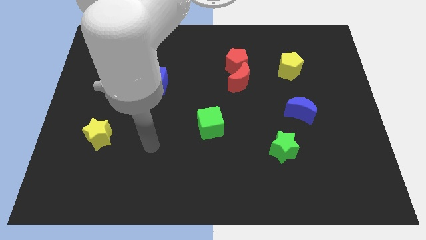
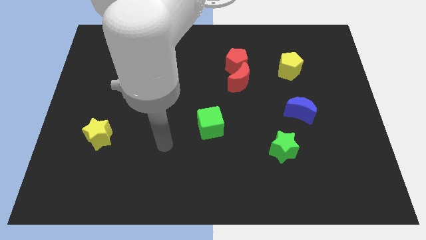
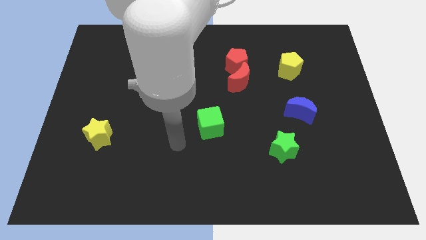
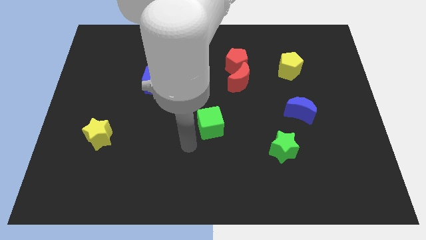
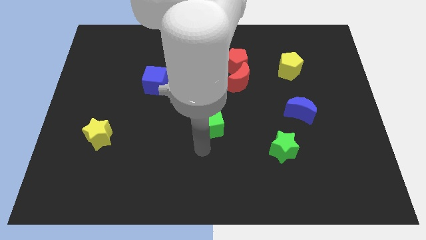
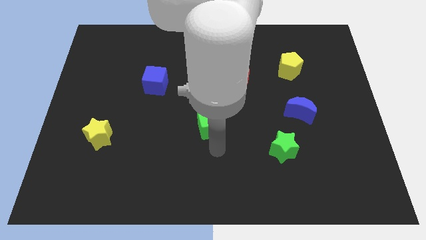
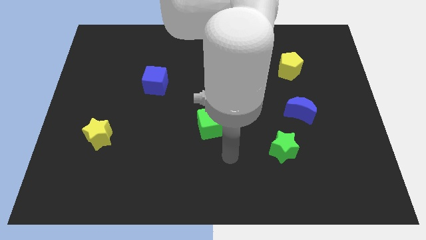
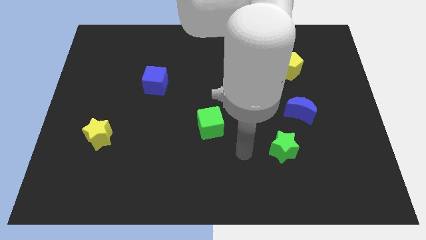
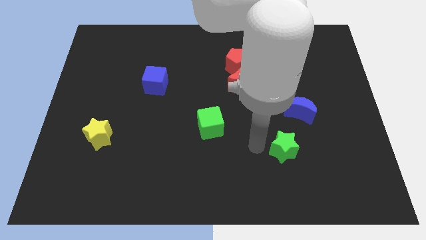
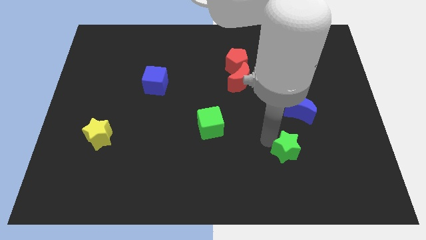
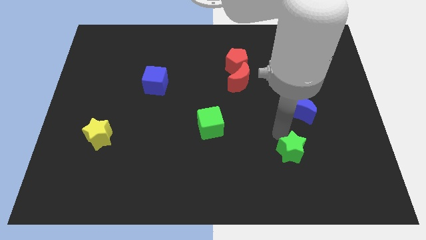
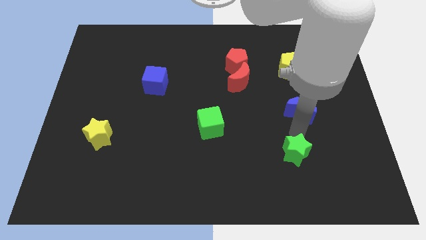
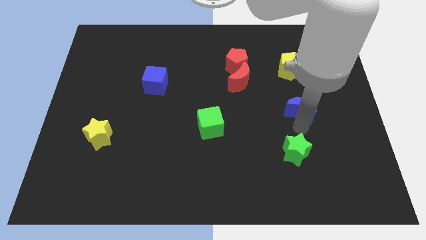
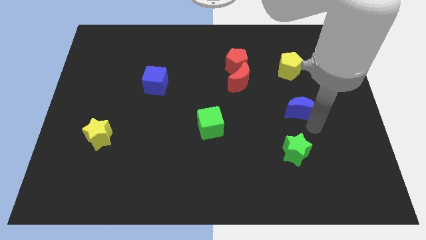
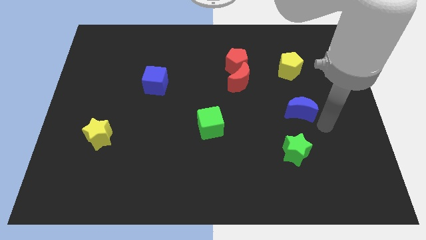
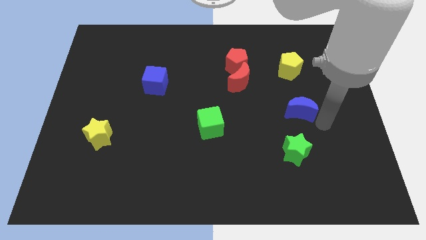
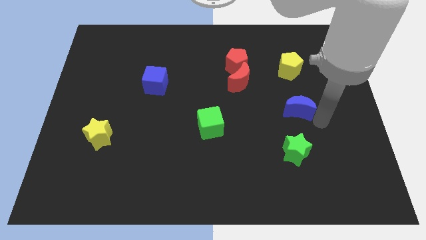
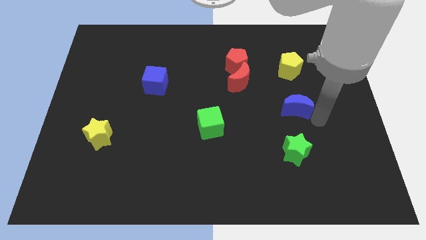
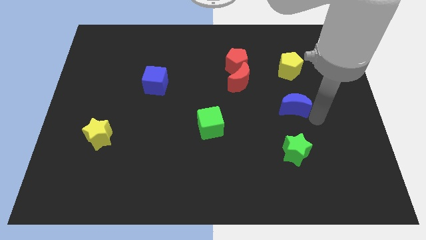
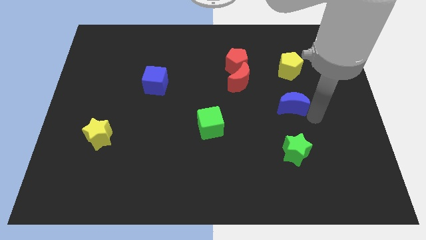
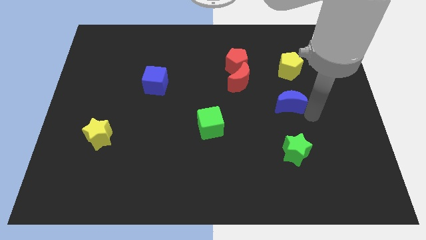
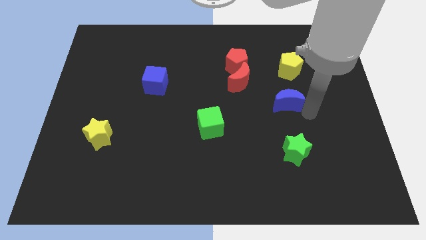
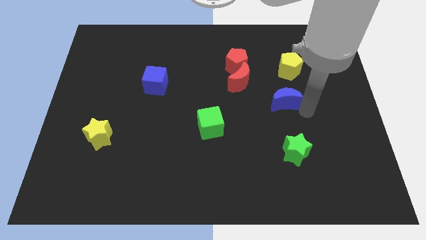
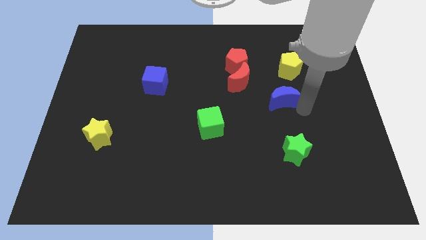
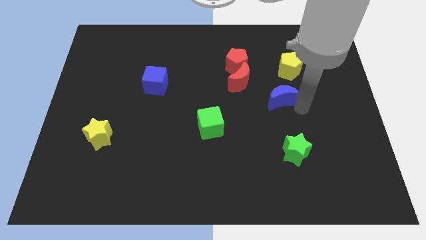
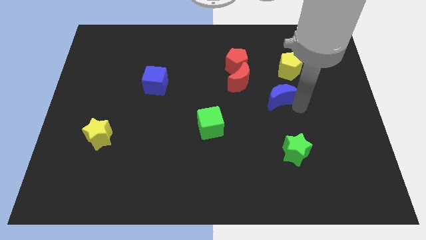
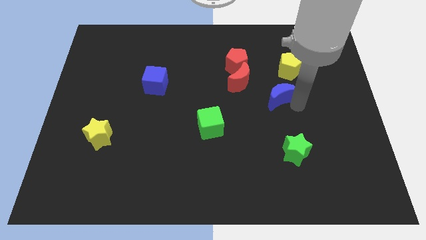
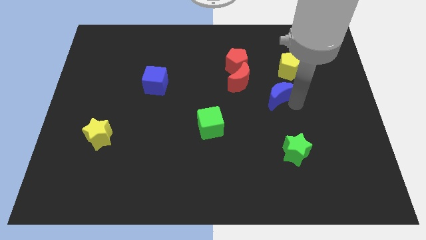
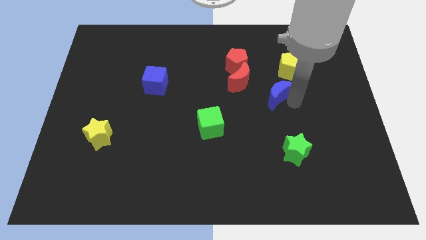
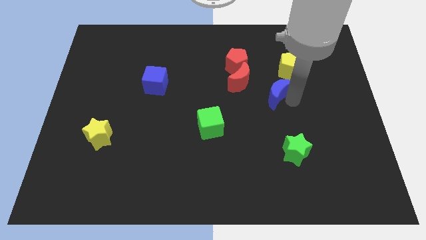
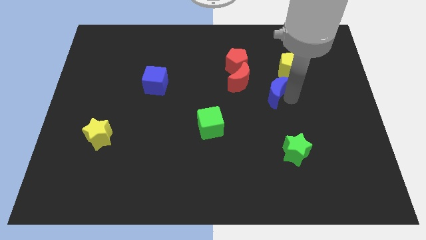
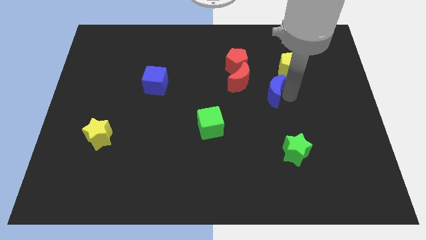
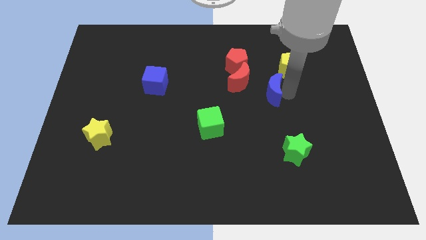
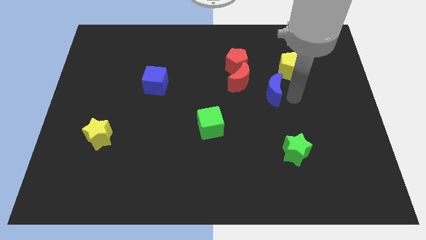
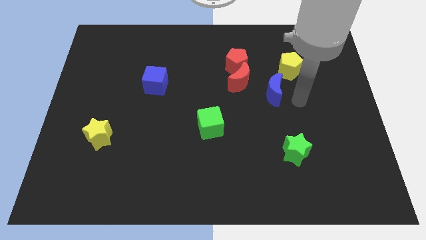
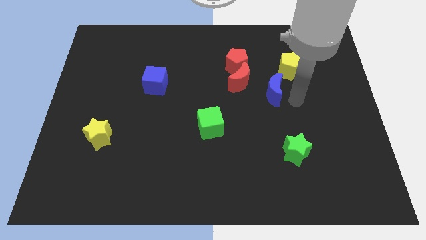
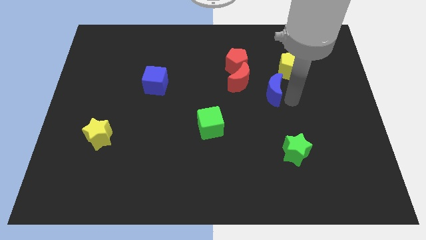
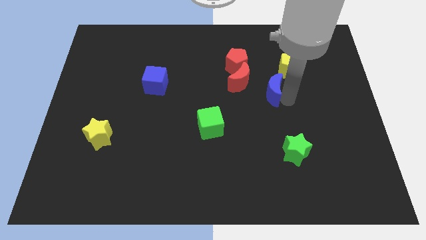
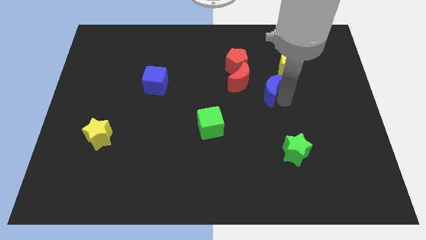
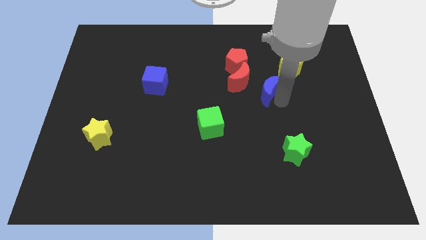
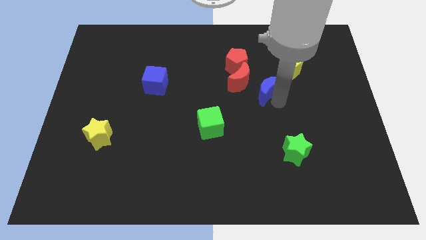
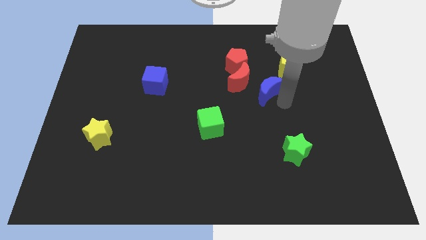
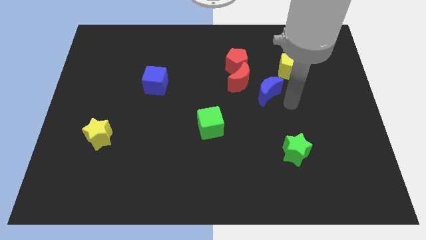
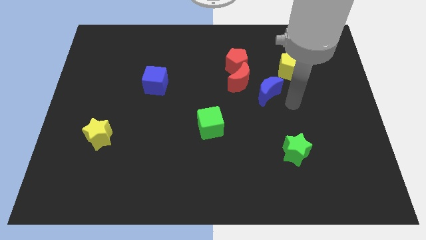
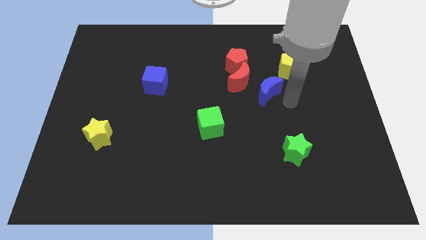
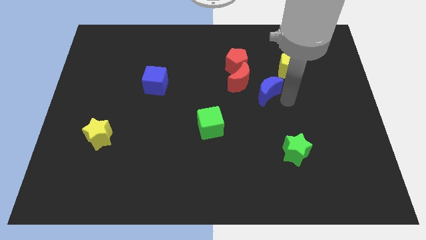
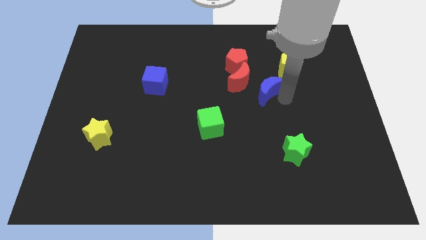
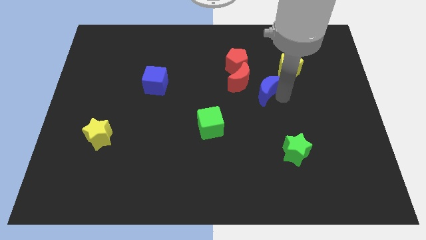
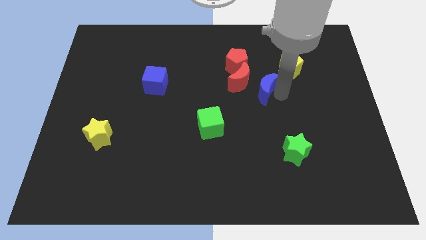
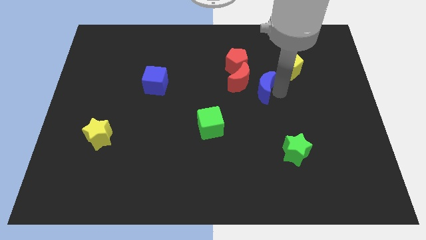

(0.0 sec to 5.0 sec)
put the blue moon close to the red moon

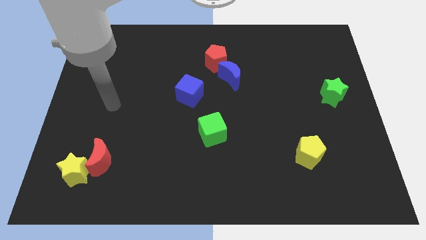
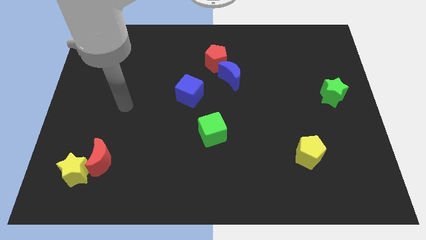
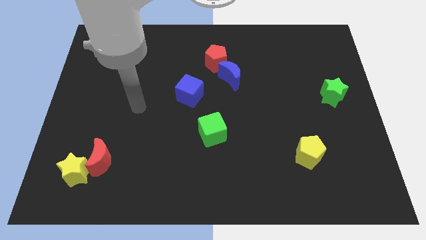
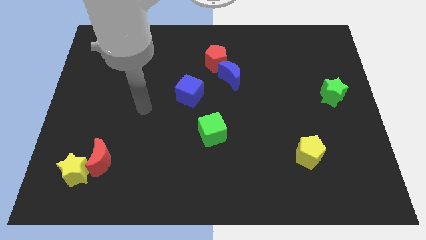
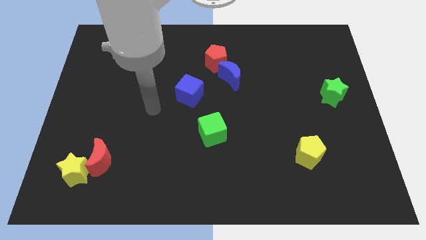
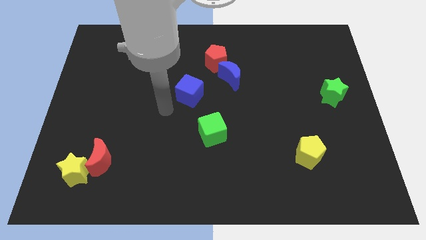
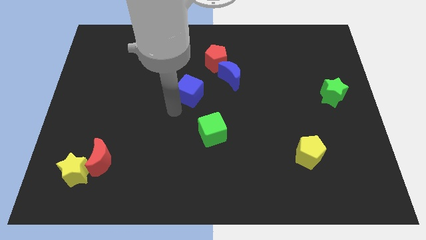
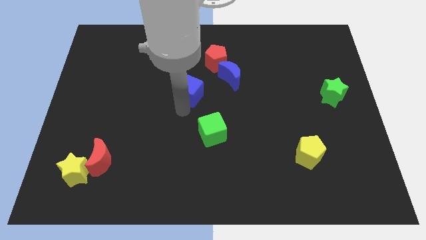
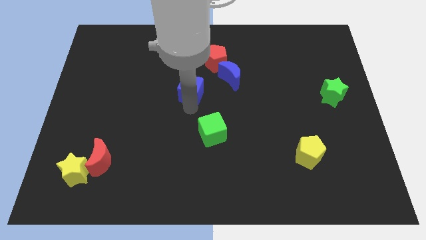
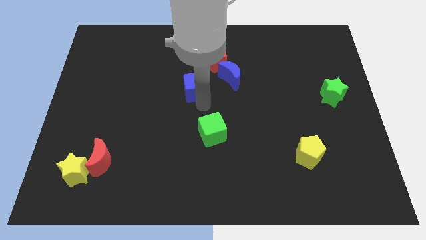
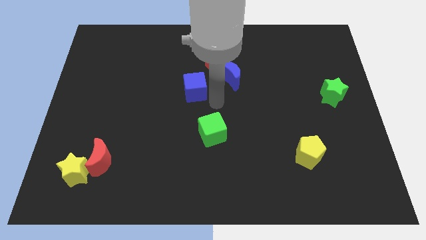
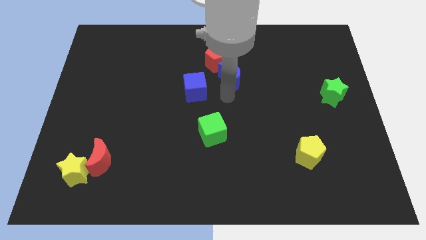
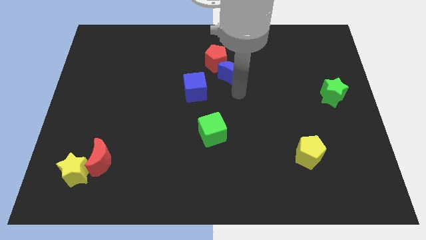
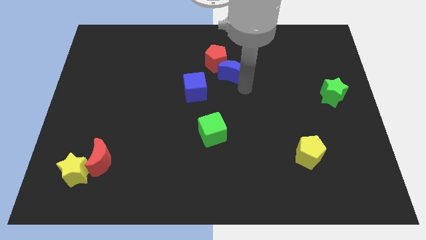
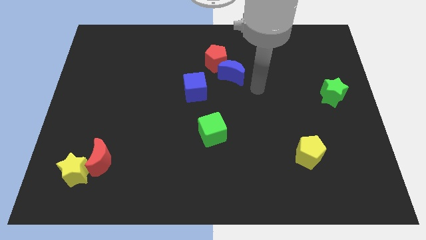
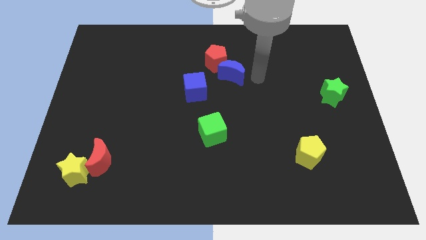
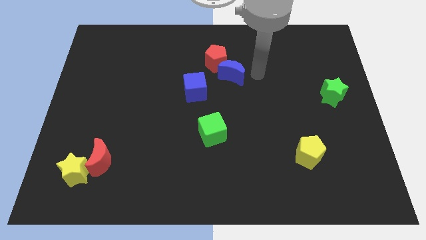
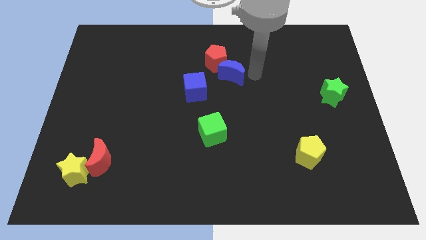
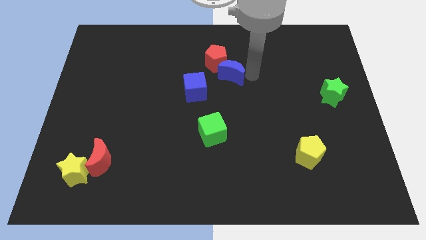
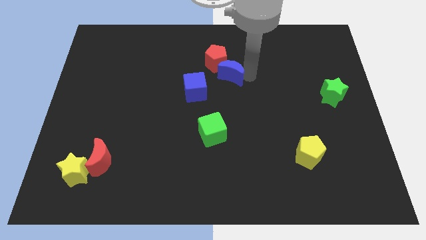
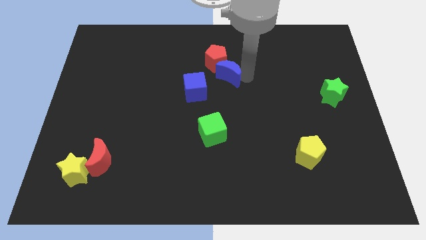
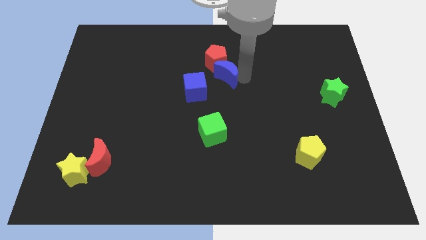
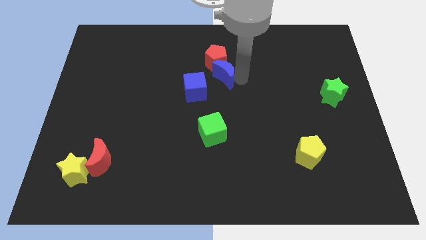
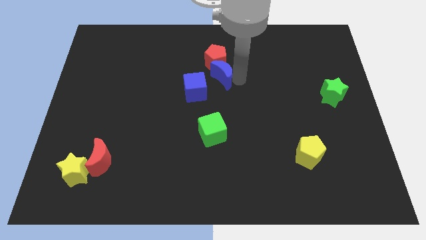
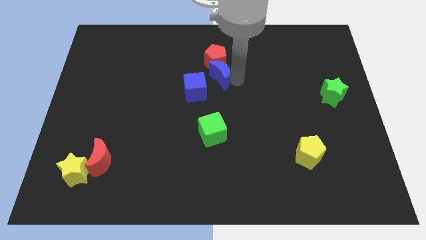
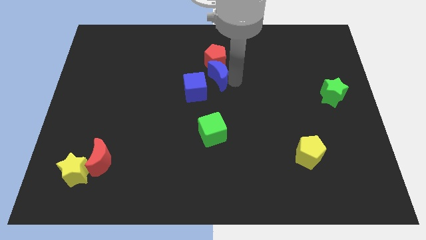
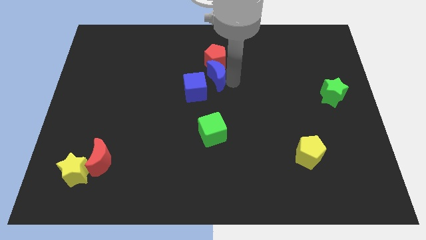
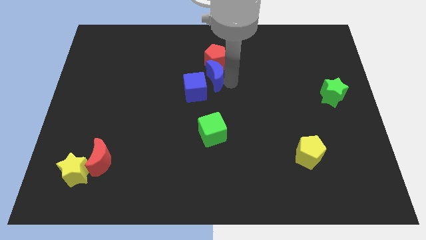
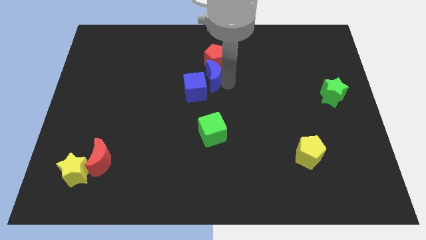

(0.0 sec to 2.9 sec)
slide the blue moon towards the blue cube
